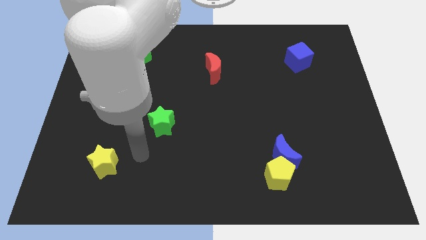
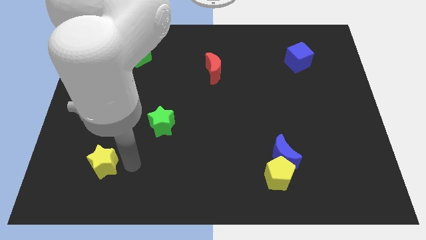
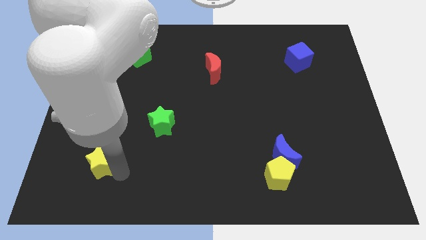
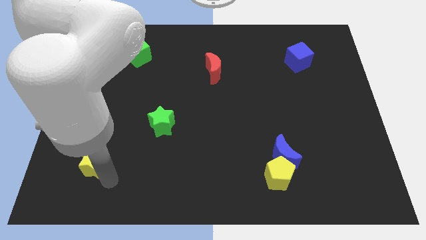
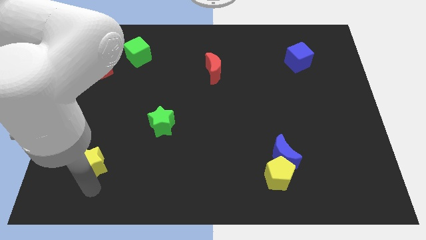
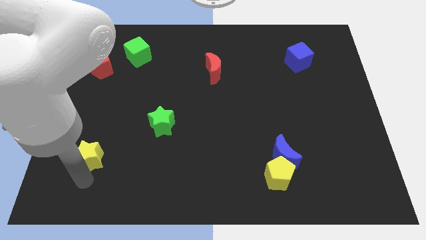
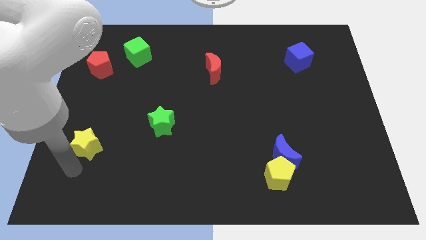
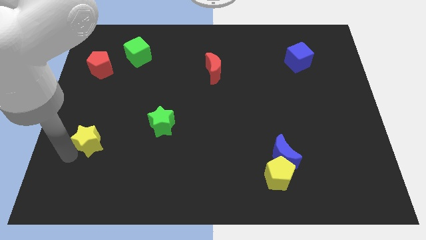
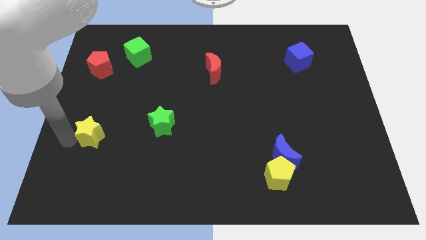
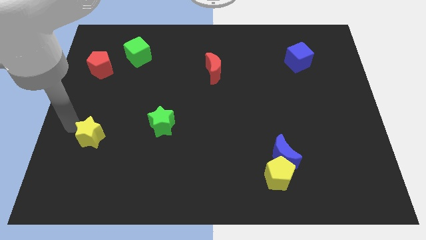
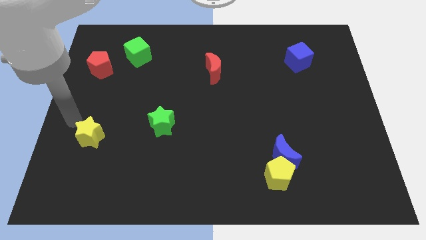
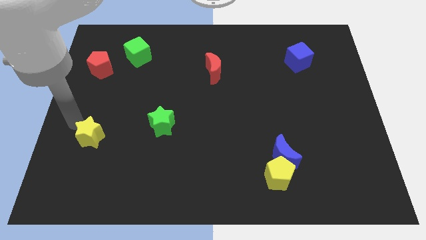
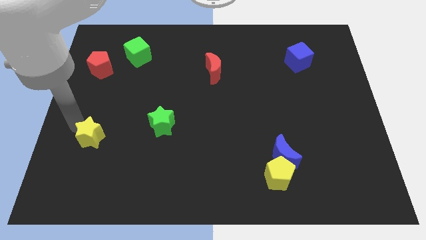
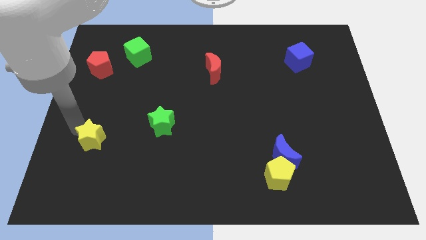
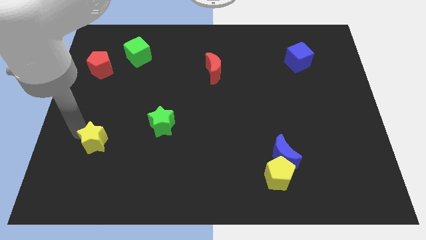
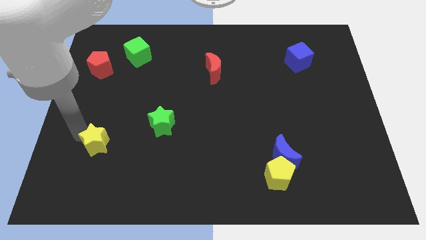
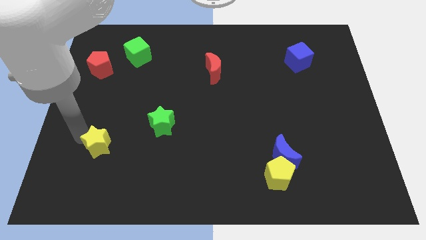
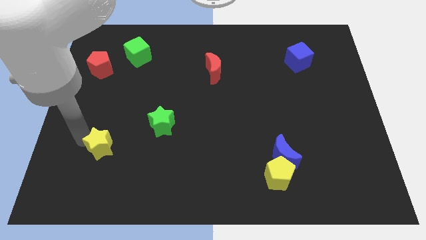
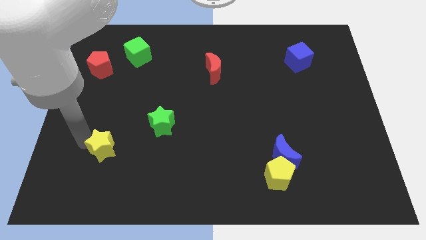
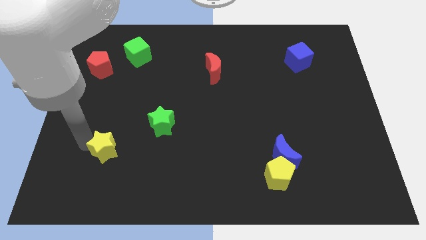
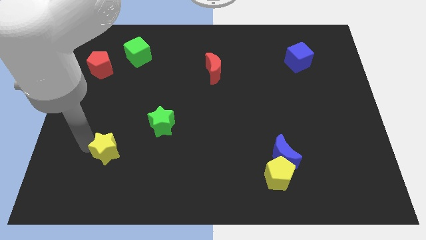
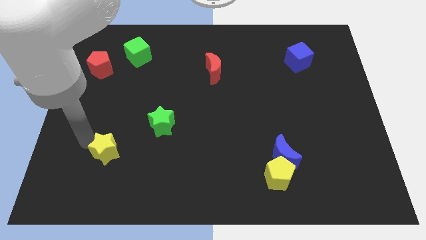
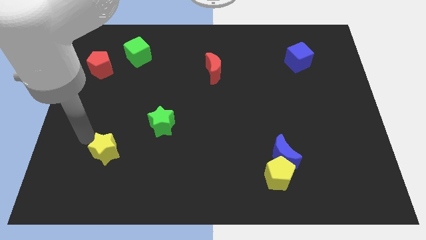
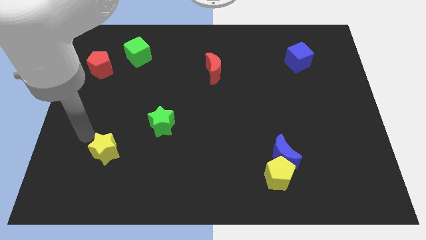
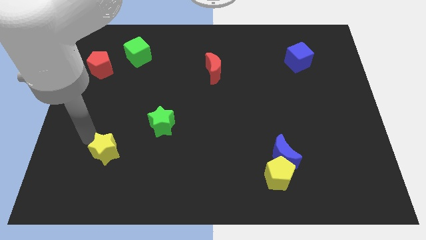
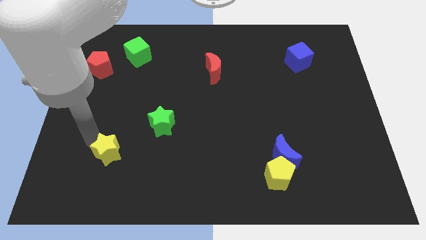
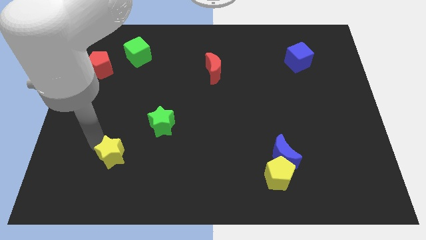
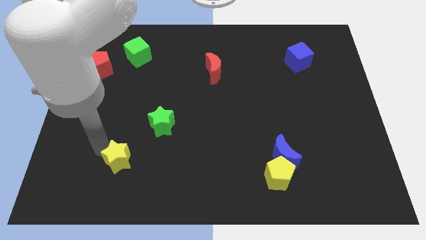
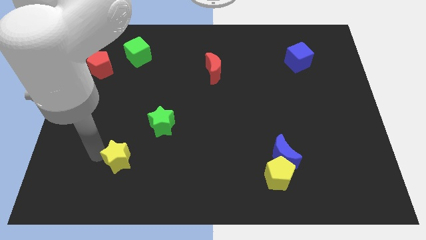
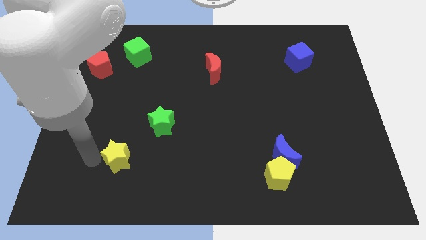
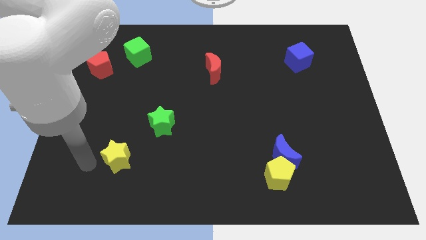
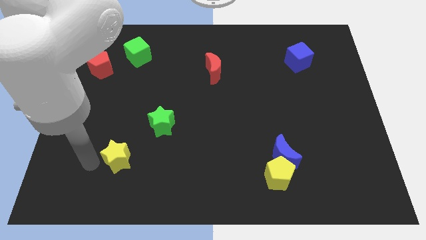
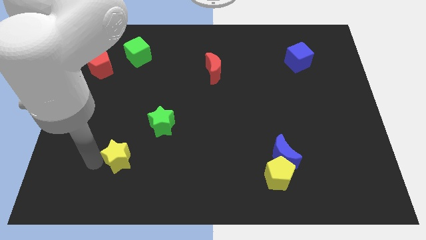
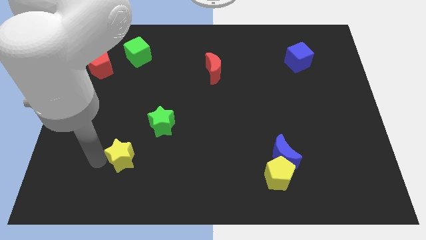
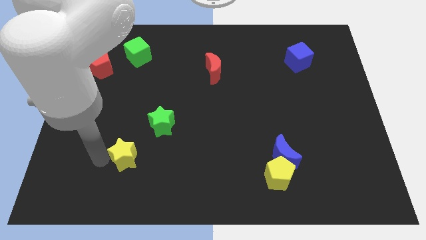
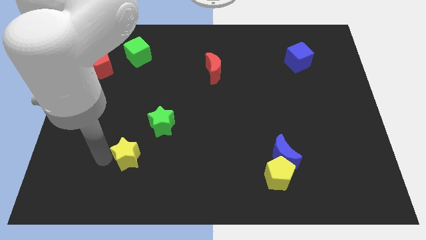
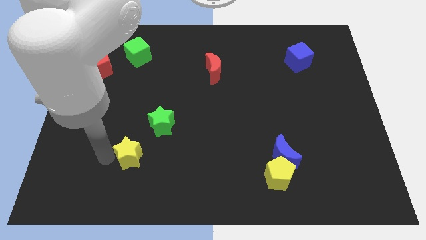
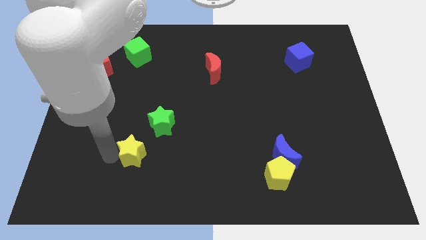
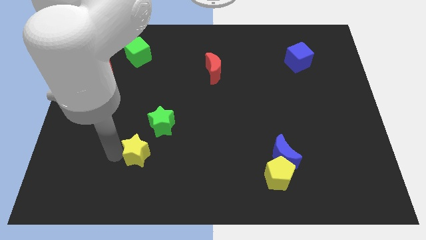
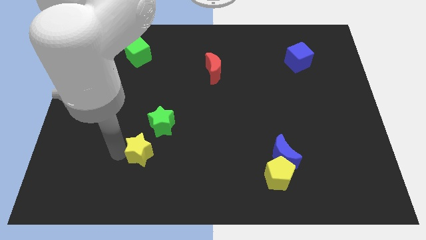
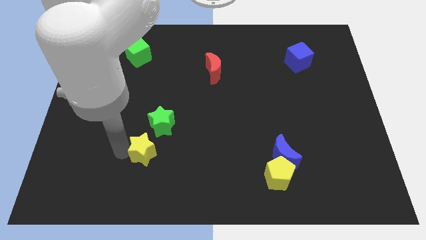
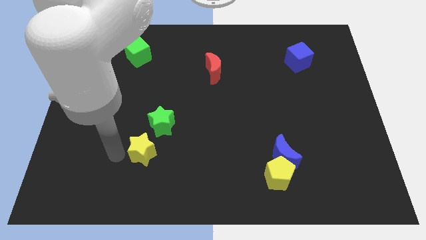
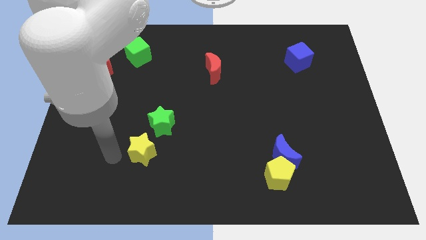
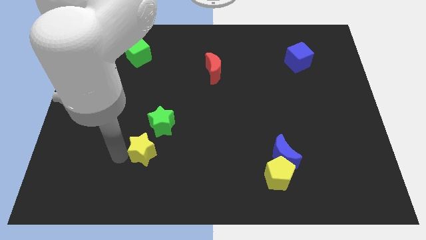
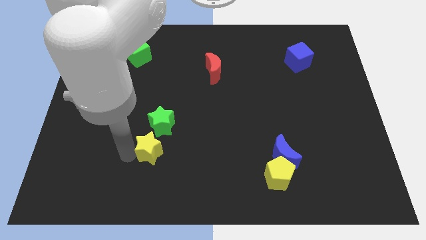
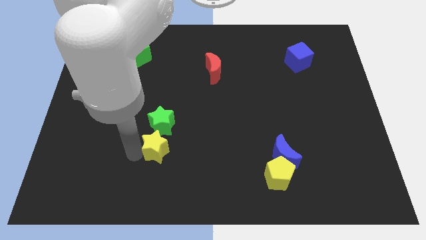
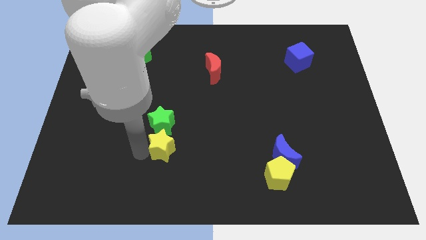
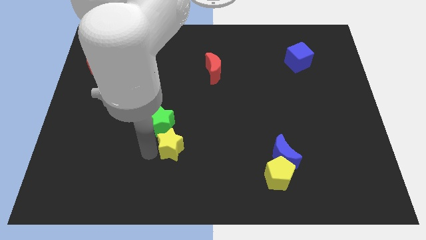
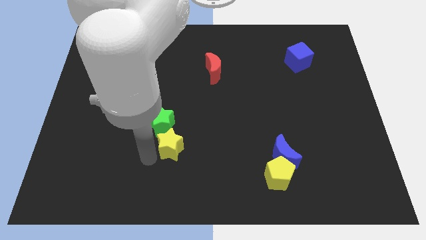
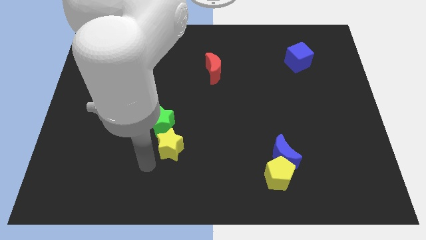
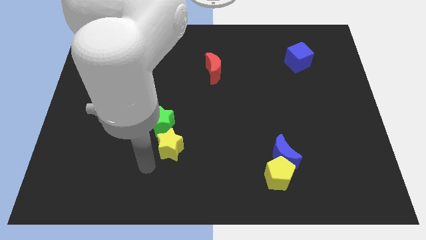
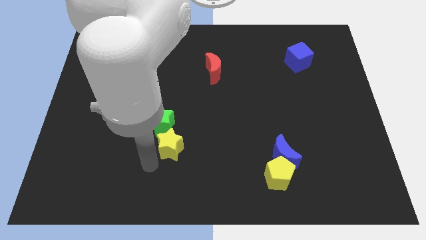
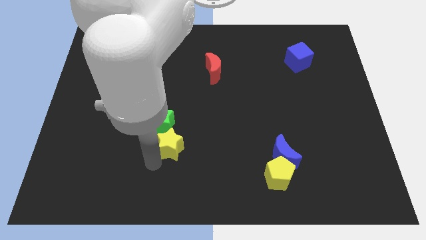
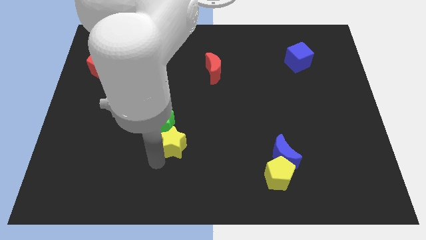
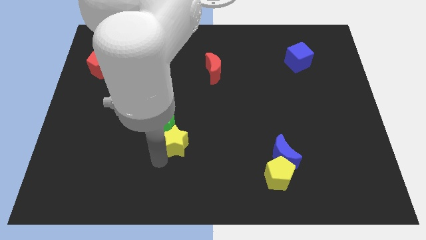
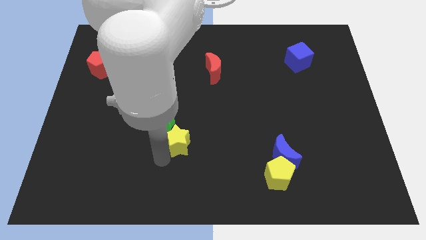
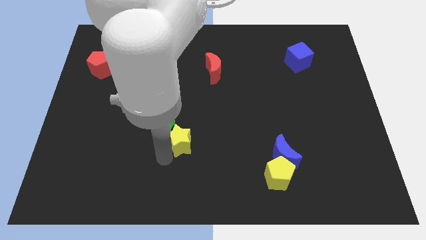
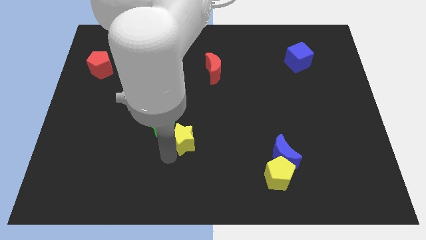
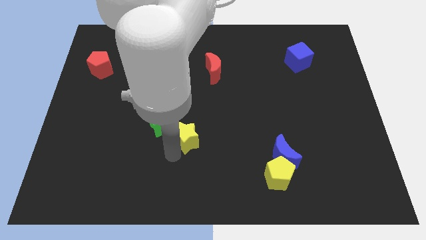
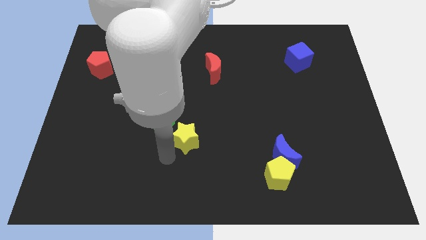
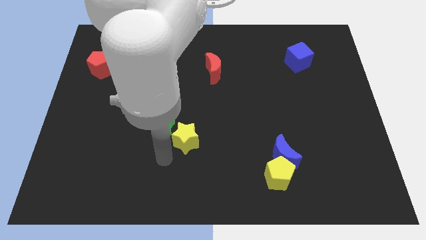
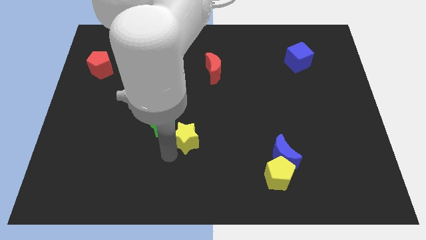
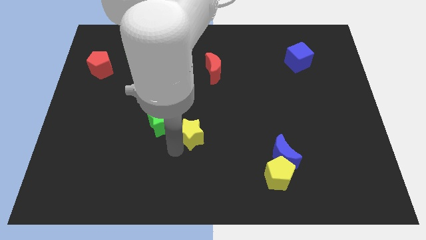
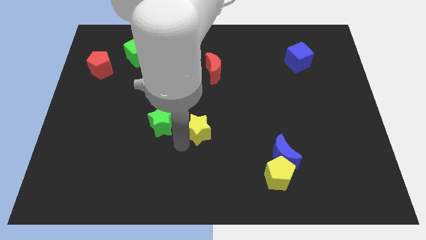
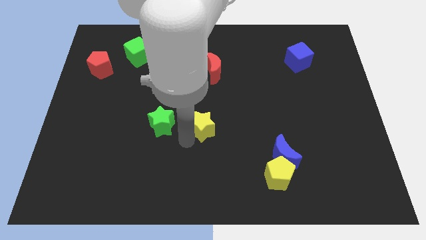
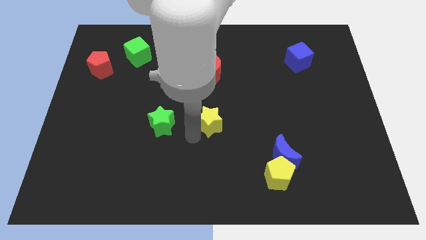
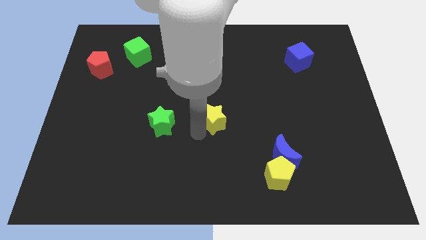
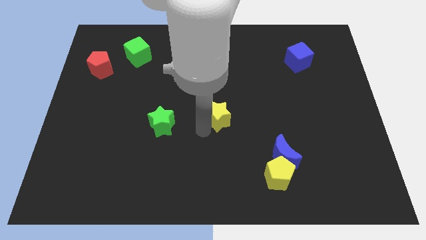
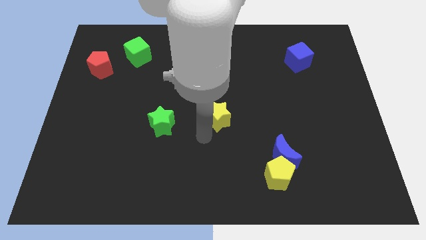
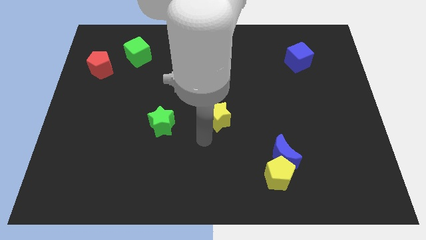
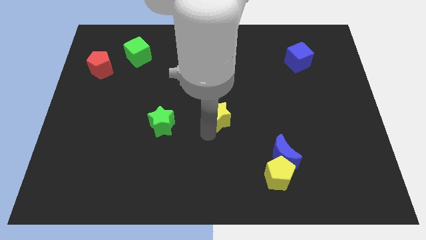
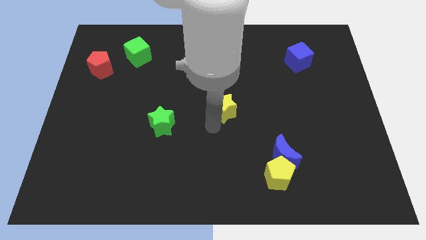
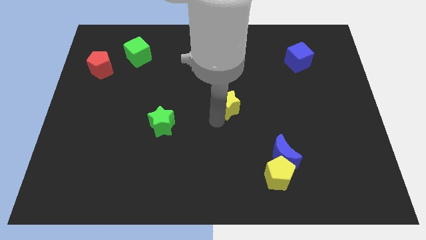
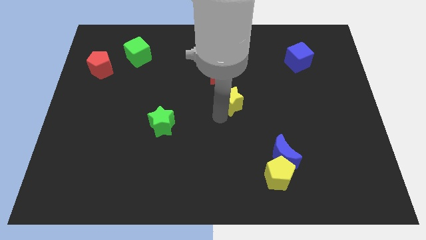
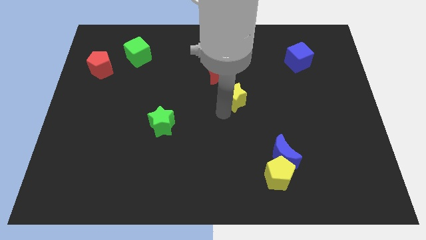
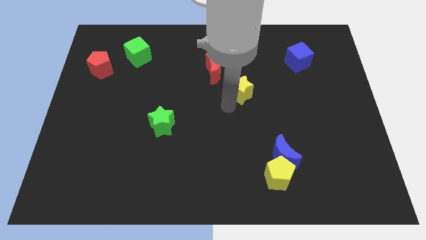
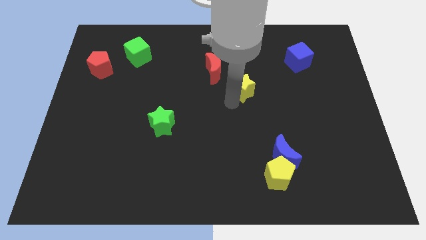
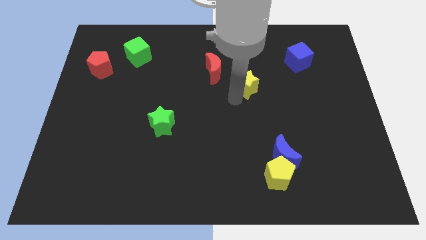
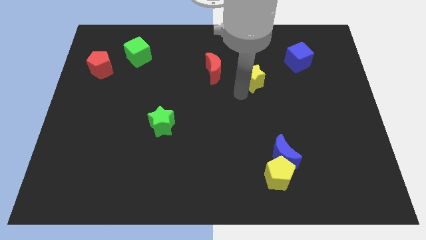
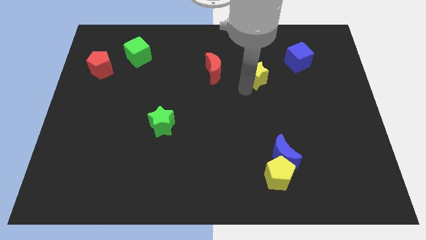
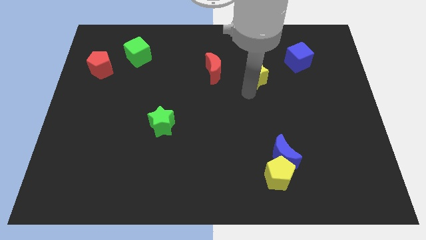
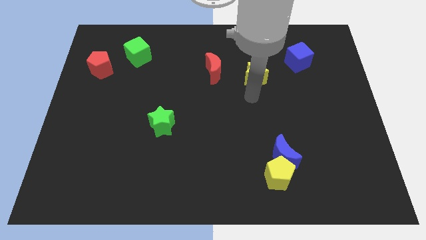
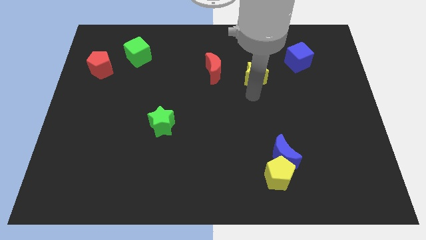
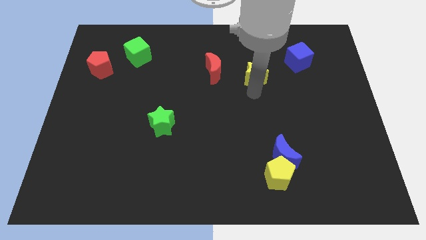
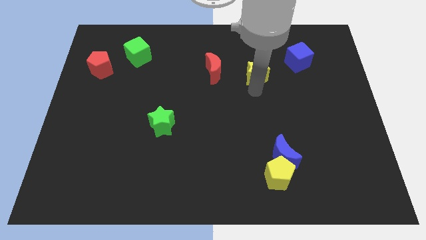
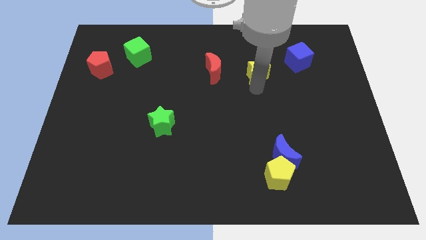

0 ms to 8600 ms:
push the yellow star to the left of the blue cube
